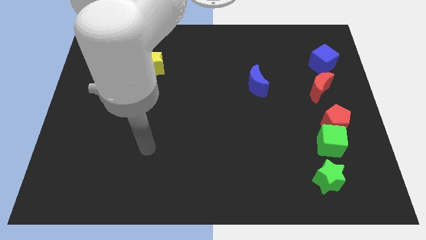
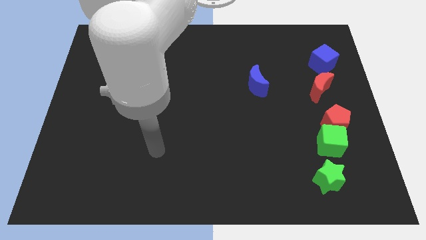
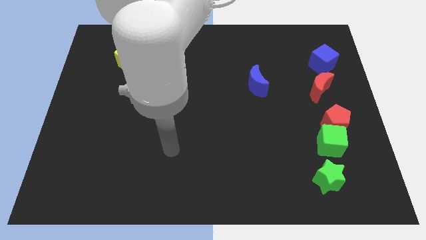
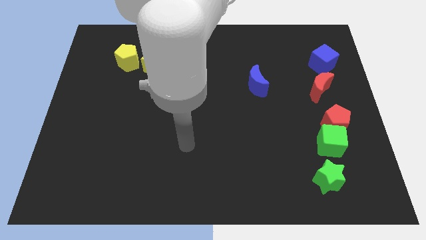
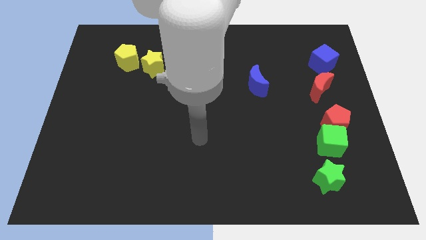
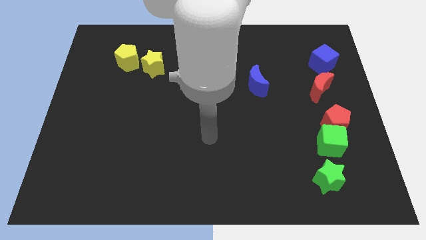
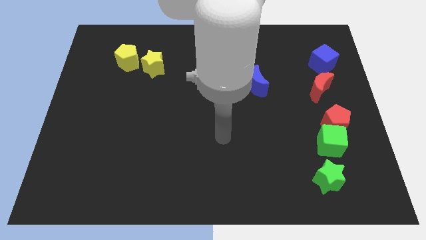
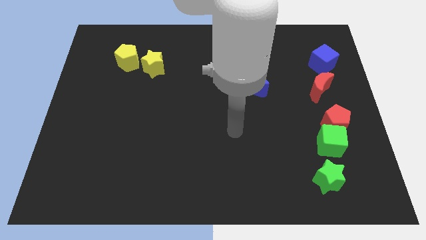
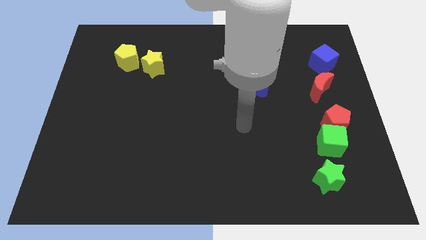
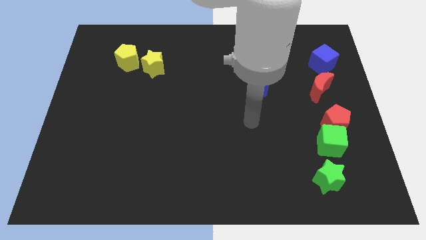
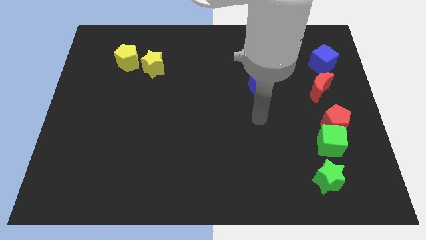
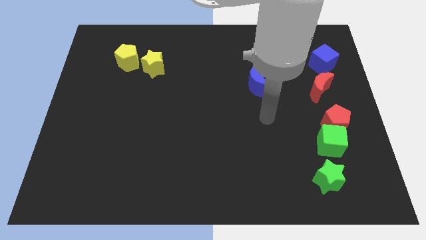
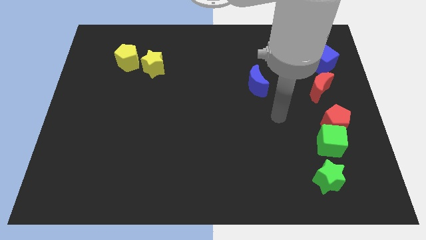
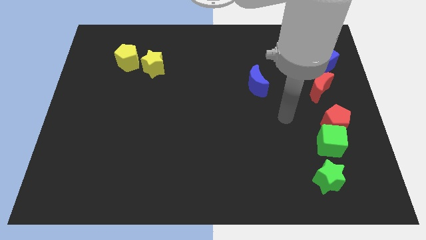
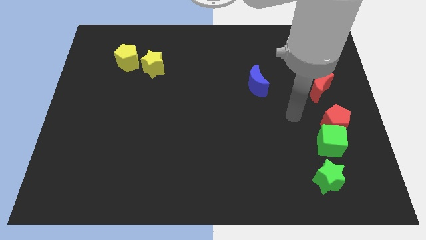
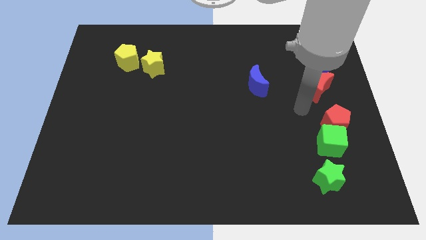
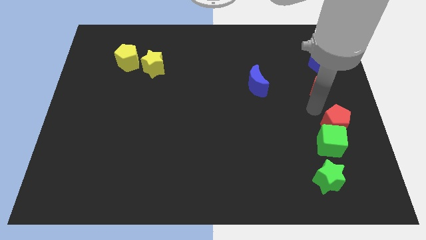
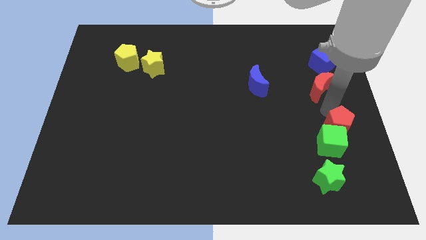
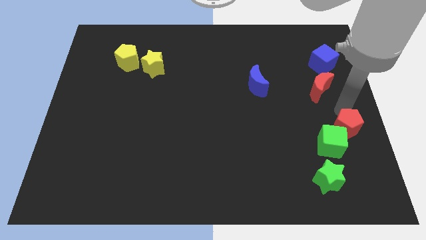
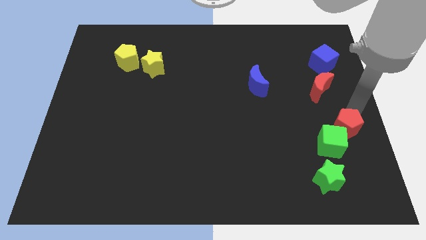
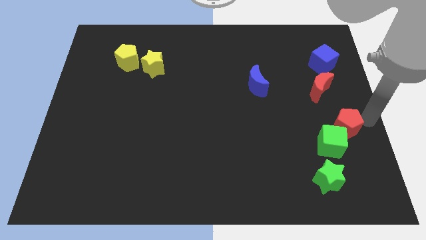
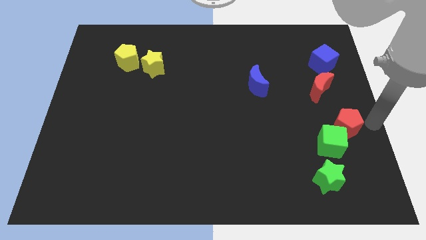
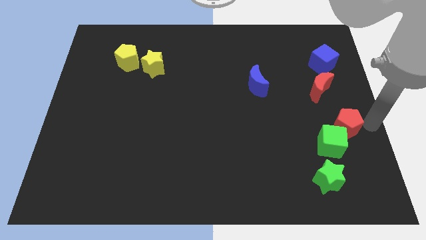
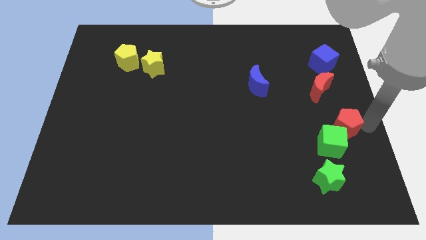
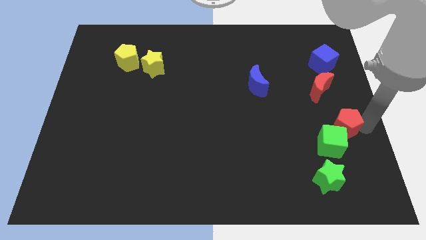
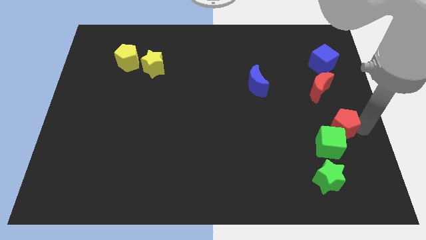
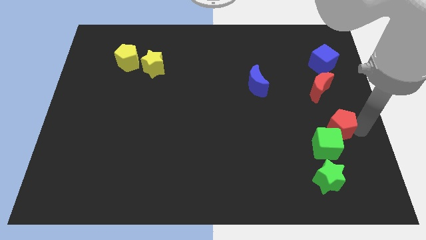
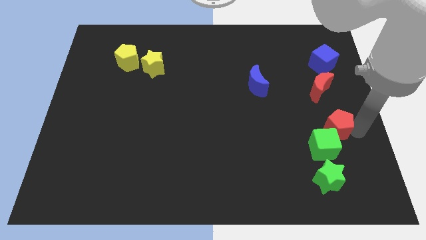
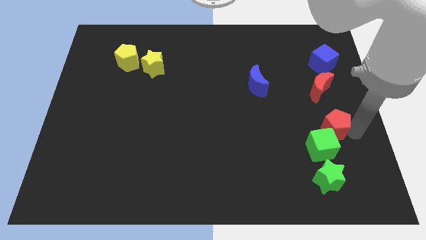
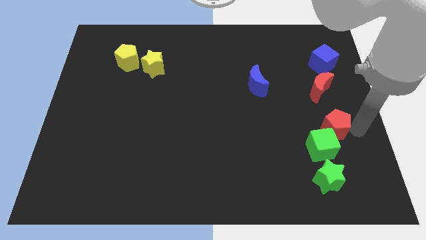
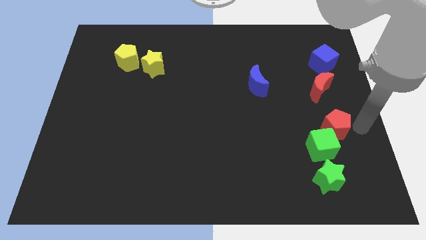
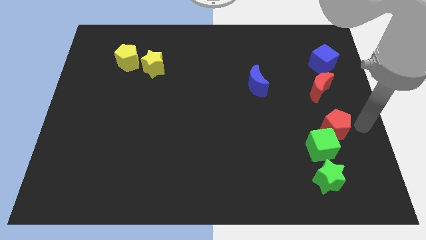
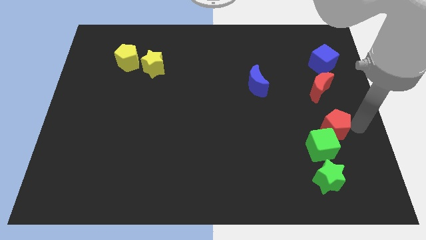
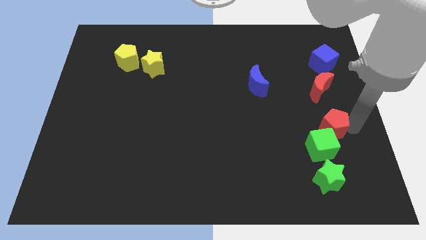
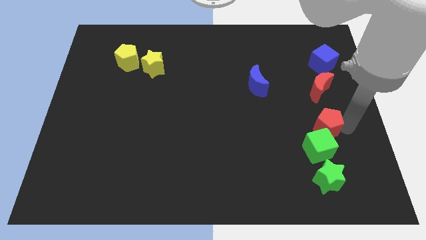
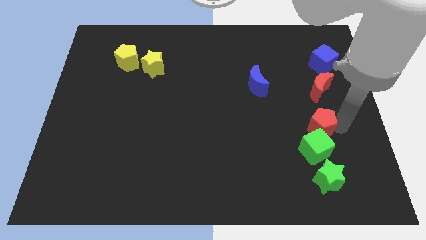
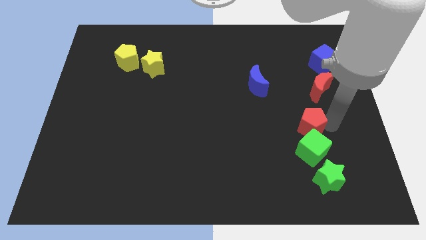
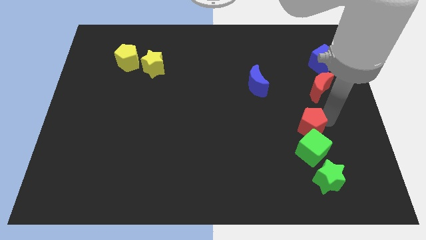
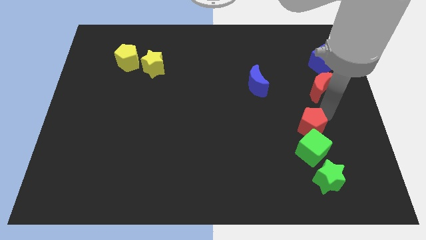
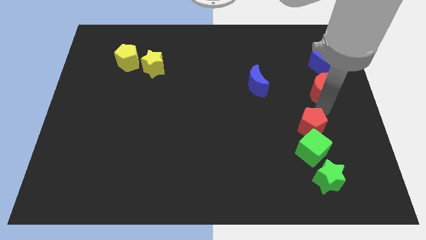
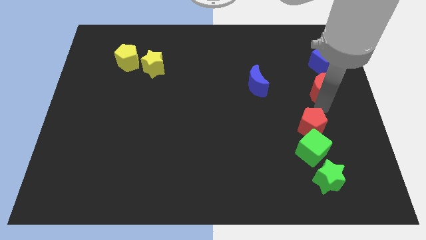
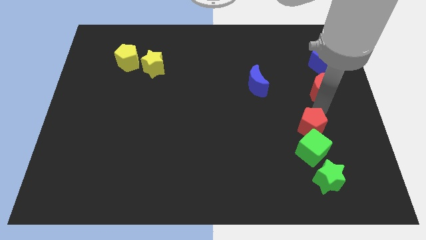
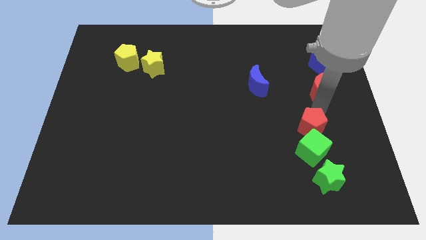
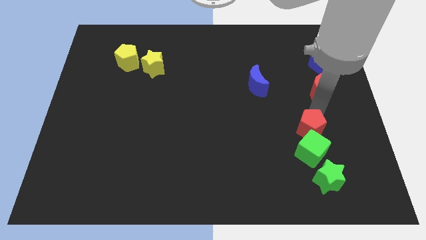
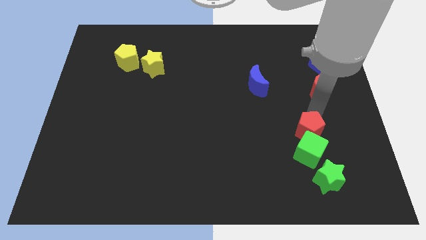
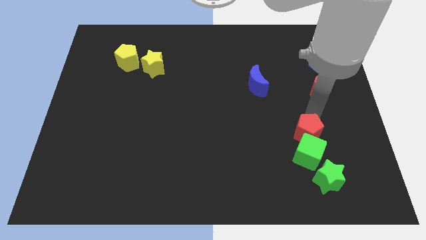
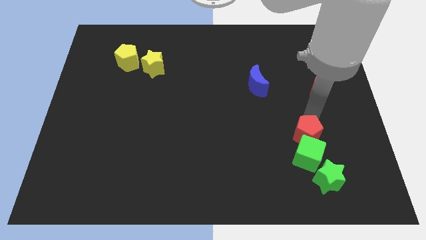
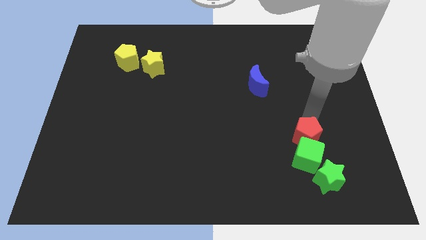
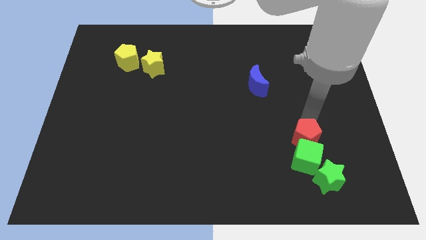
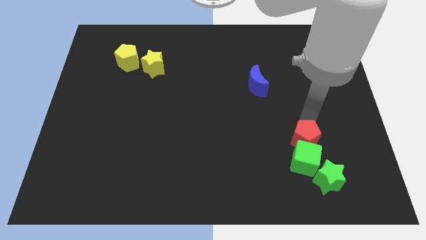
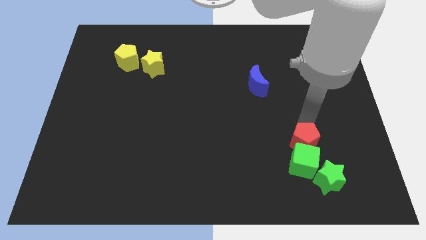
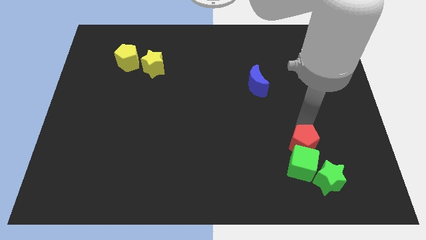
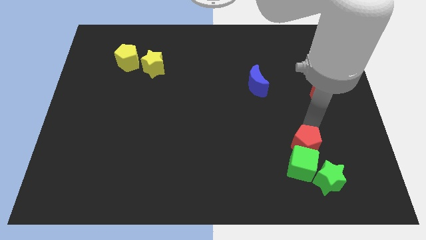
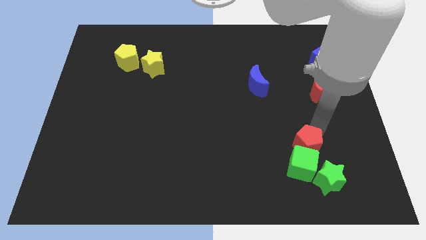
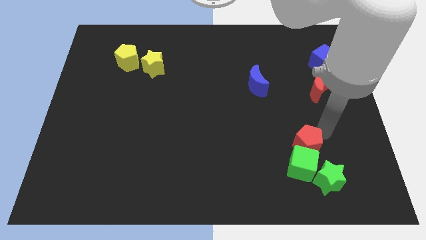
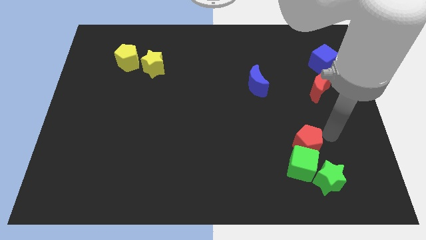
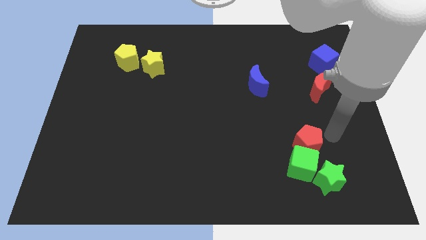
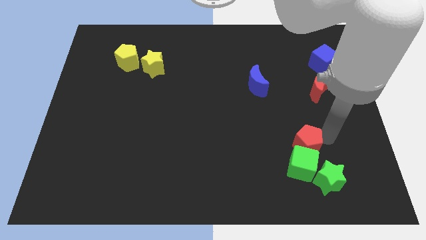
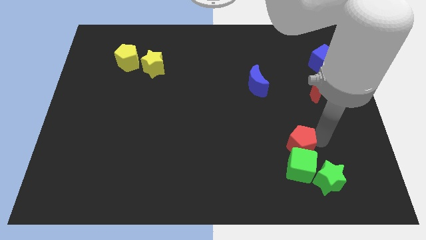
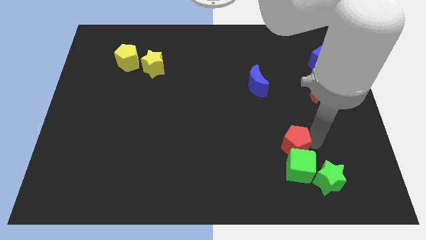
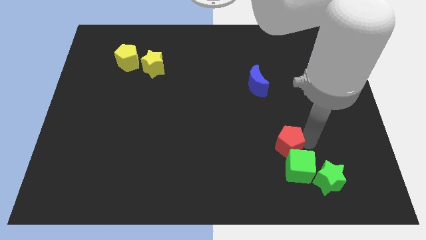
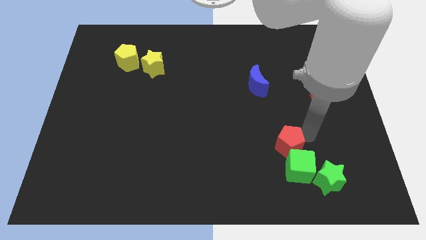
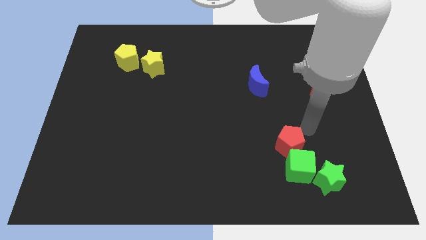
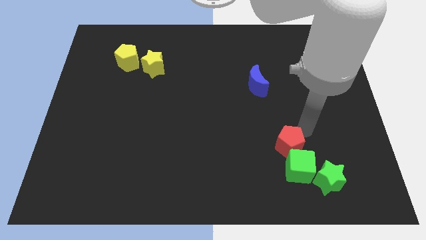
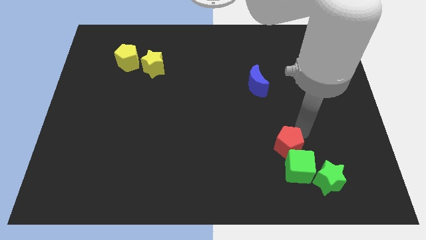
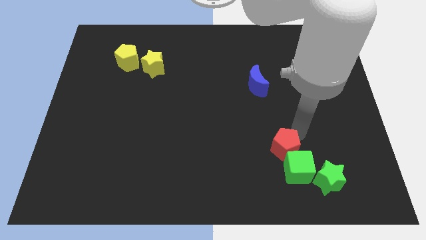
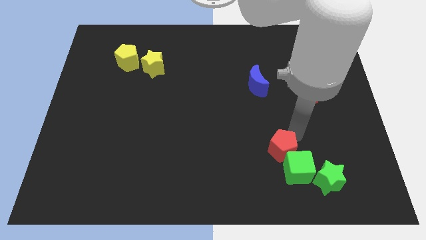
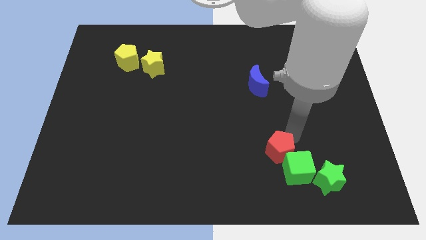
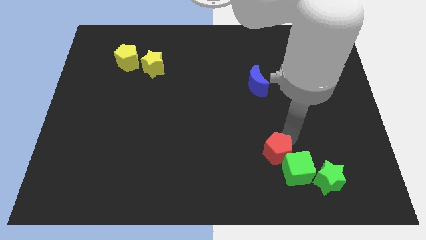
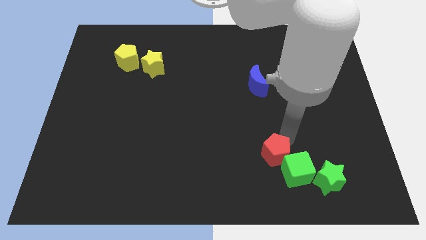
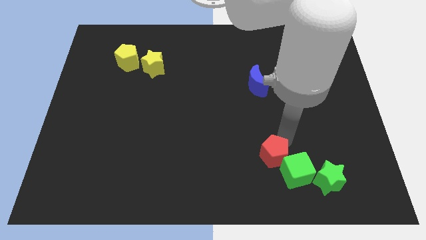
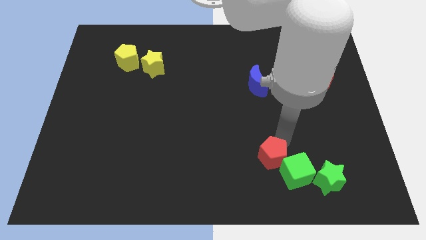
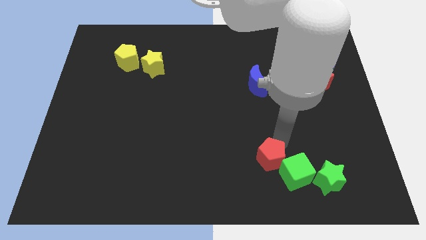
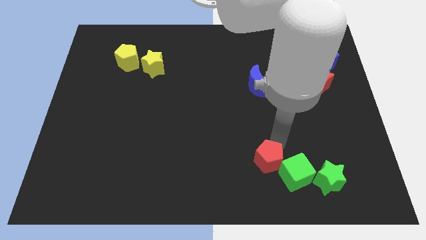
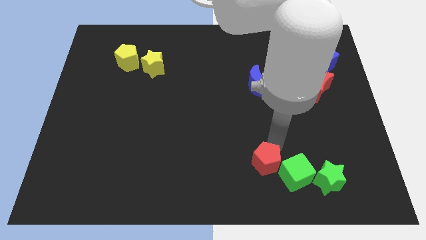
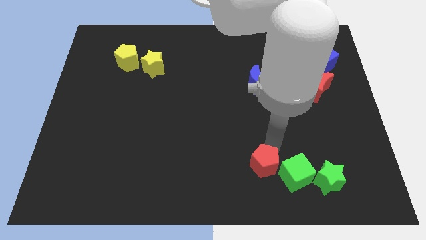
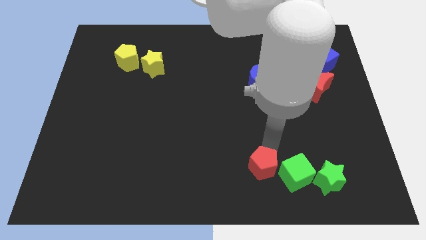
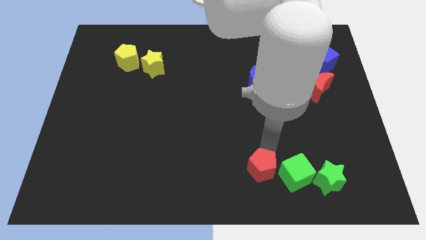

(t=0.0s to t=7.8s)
put the red pentagon to the bottom side
